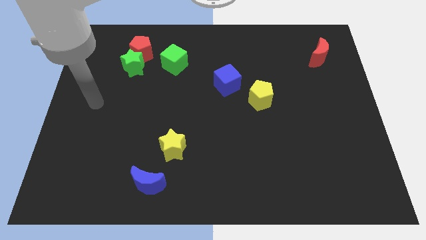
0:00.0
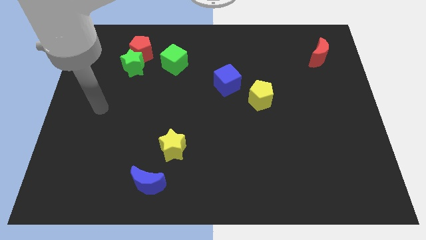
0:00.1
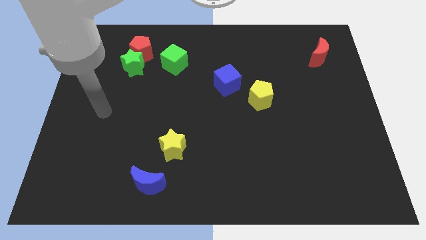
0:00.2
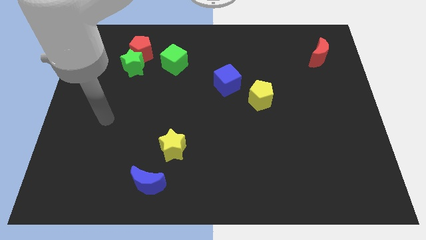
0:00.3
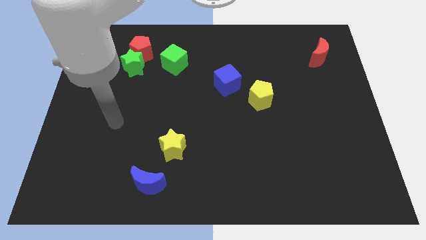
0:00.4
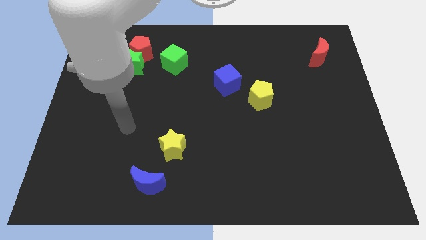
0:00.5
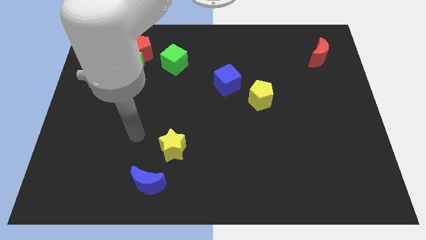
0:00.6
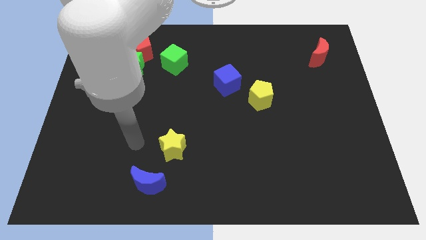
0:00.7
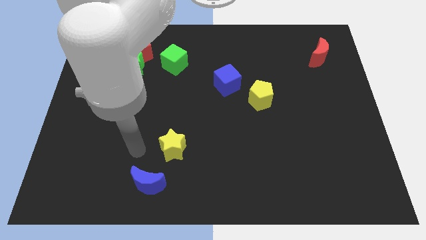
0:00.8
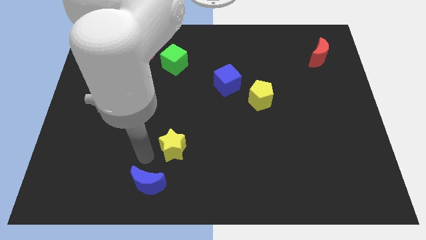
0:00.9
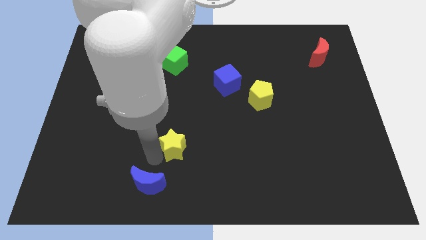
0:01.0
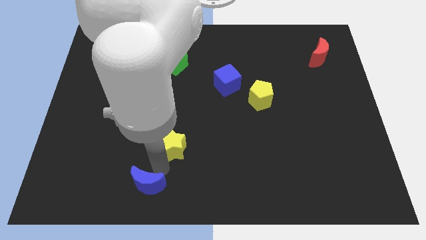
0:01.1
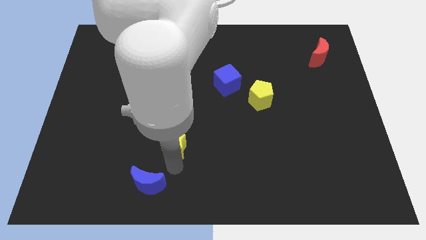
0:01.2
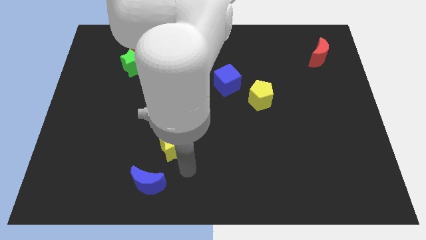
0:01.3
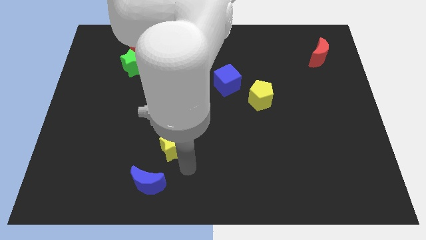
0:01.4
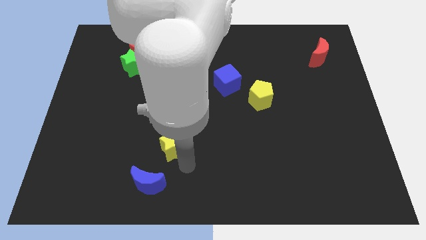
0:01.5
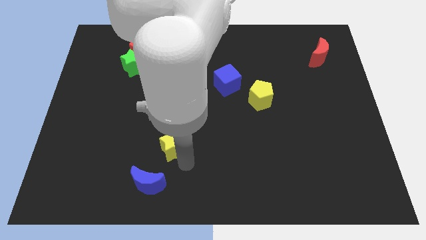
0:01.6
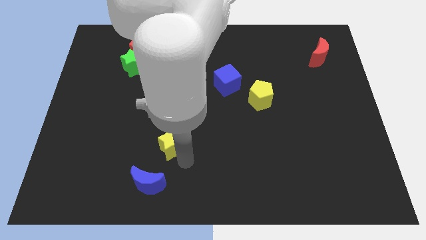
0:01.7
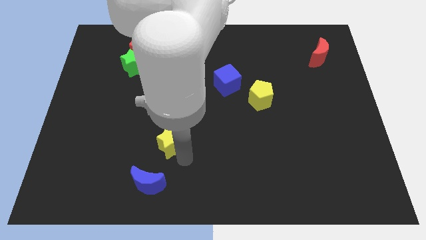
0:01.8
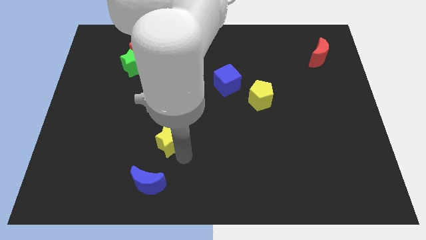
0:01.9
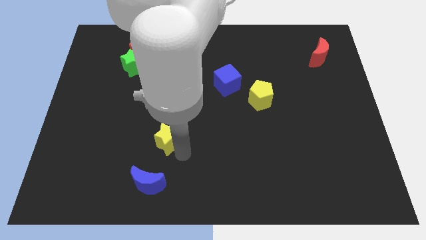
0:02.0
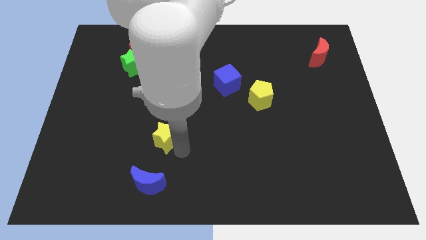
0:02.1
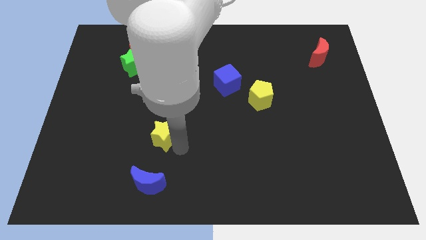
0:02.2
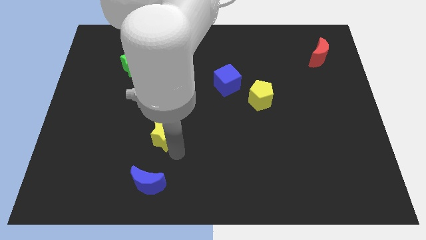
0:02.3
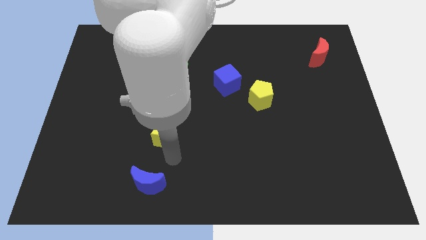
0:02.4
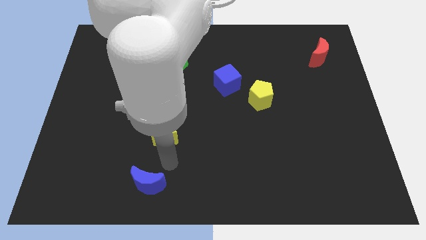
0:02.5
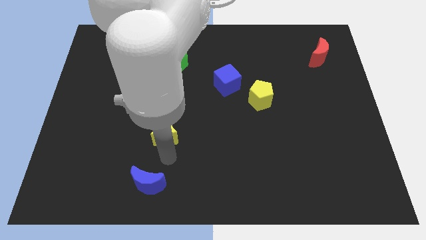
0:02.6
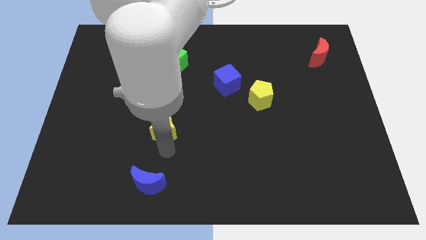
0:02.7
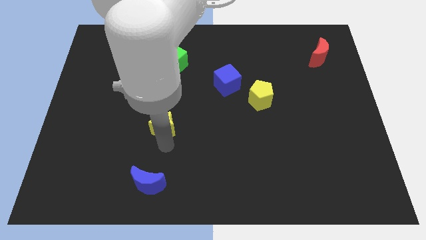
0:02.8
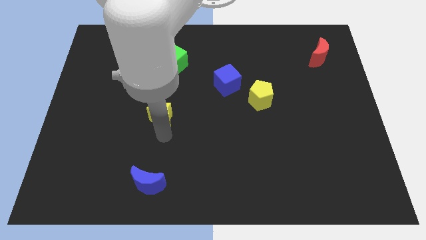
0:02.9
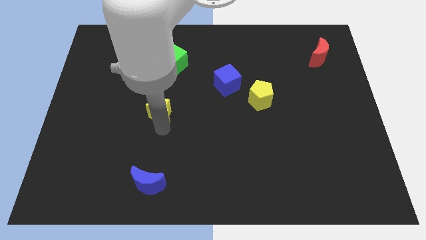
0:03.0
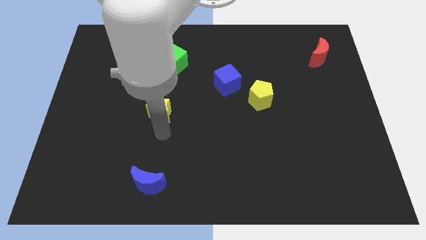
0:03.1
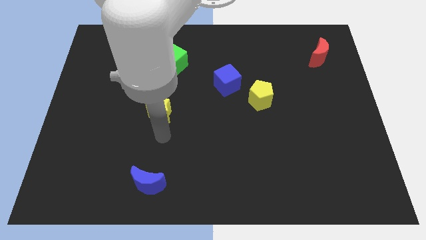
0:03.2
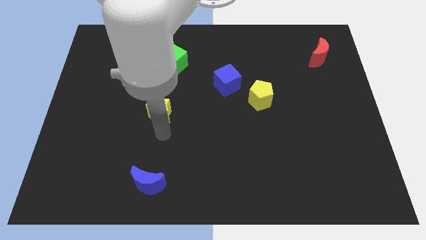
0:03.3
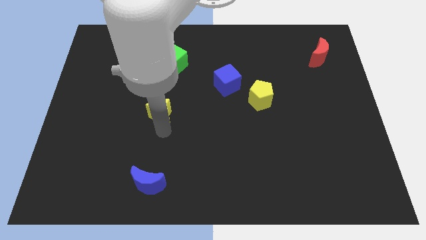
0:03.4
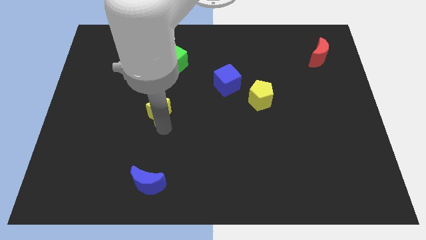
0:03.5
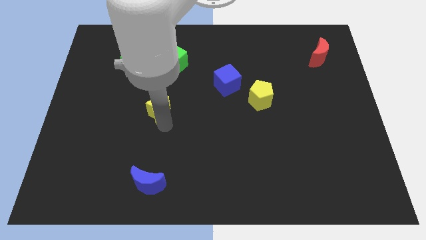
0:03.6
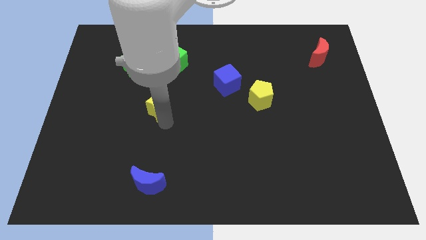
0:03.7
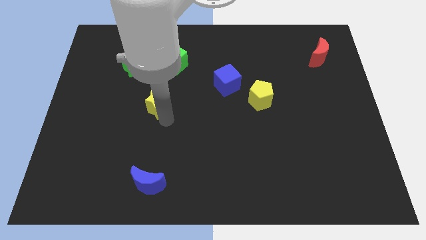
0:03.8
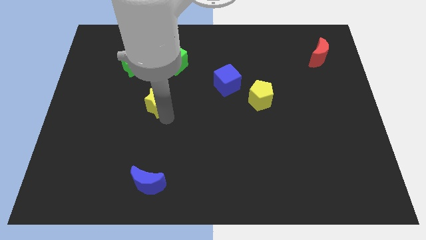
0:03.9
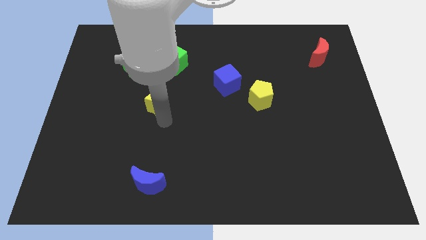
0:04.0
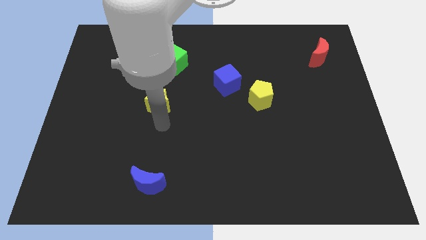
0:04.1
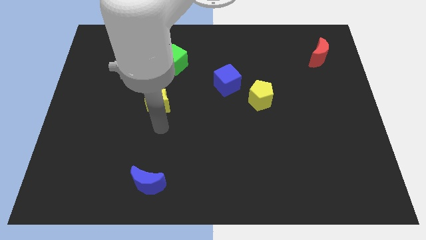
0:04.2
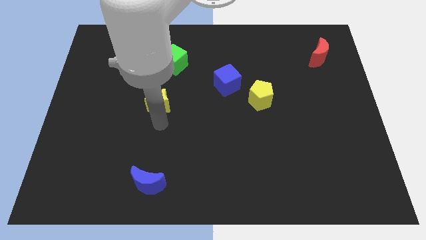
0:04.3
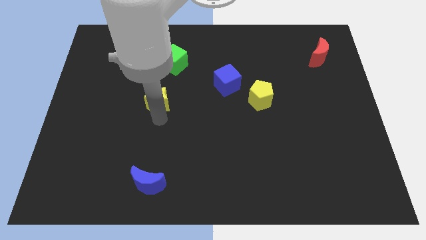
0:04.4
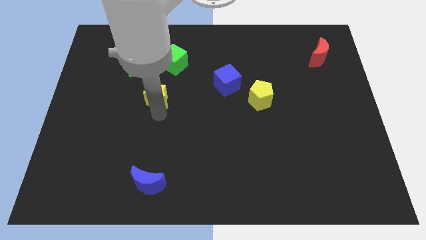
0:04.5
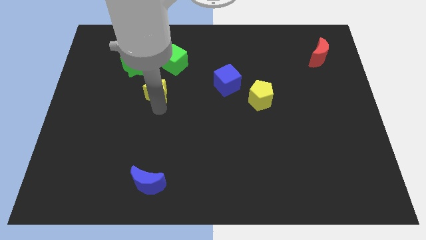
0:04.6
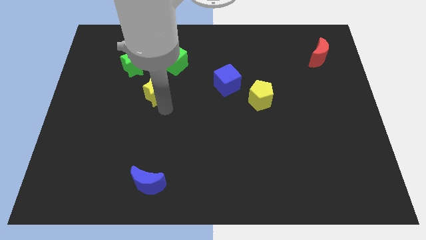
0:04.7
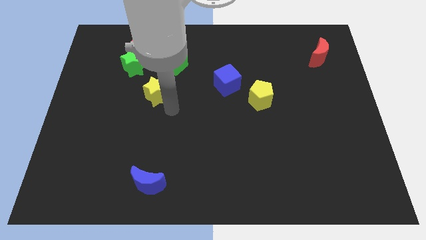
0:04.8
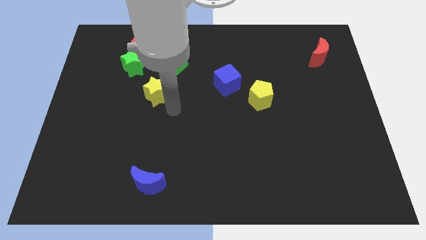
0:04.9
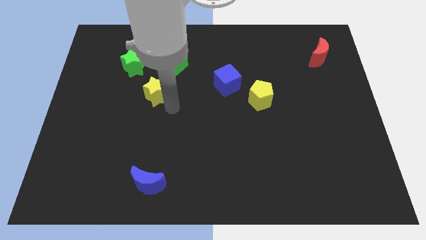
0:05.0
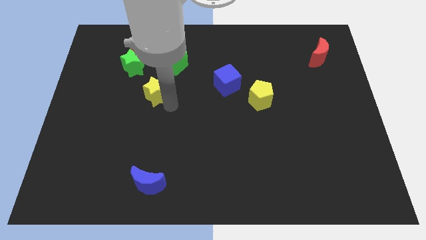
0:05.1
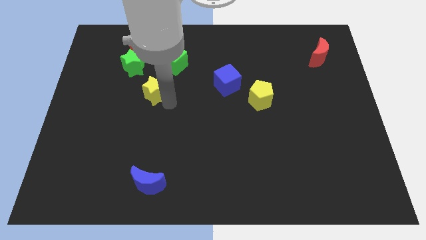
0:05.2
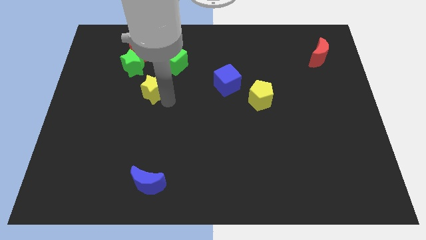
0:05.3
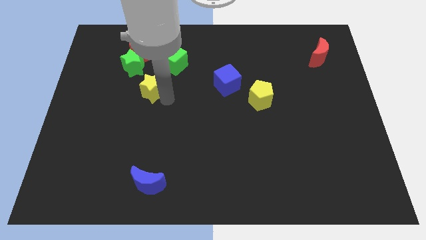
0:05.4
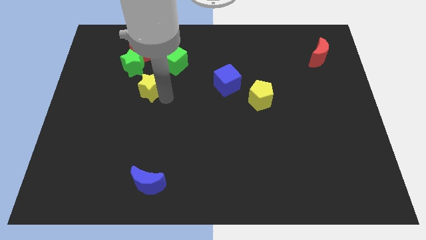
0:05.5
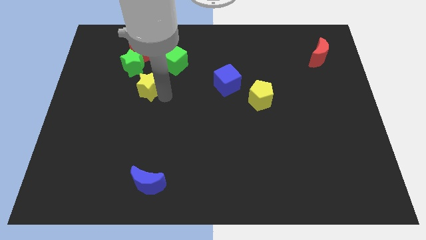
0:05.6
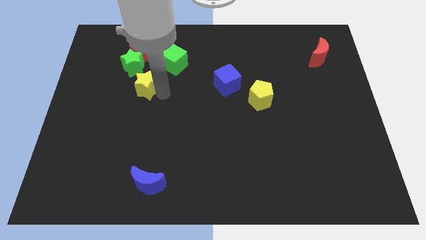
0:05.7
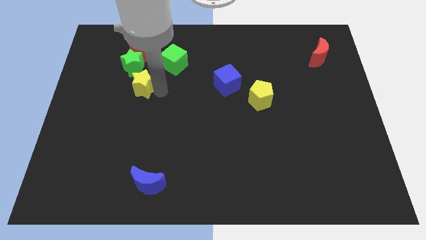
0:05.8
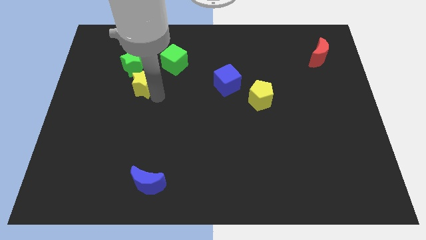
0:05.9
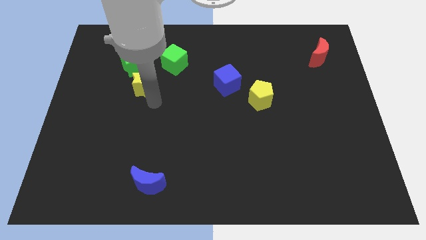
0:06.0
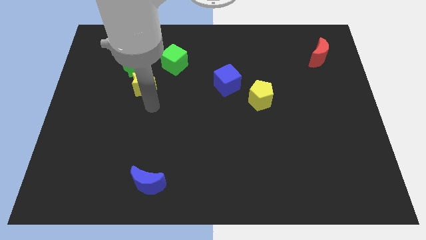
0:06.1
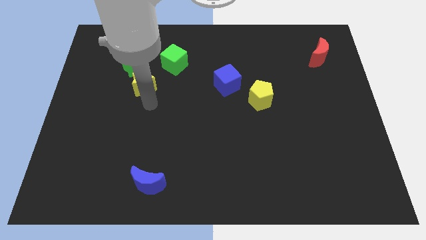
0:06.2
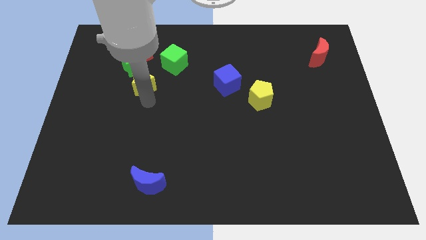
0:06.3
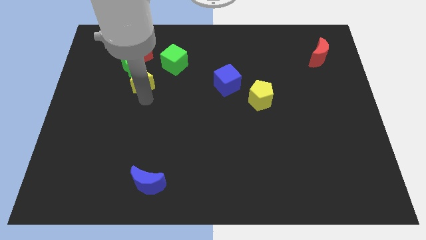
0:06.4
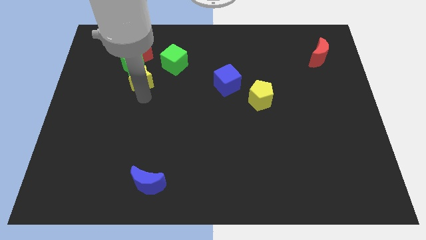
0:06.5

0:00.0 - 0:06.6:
push the yellow star close to the green star

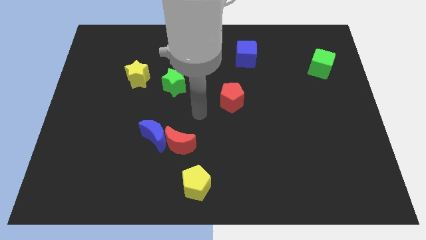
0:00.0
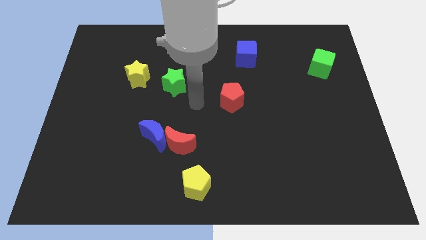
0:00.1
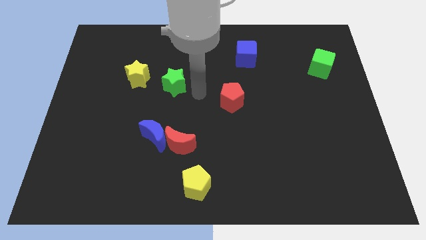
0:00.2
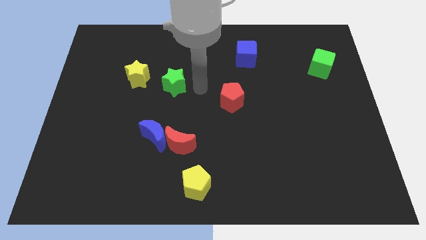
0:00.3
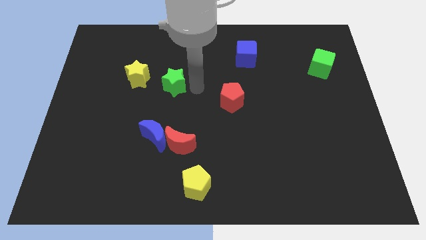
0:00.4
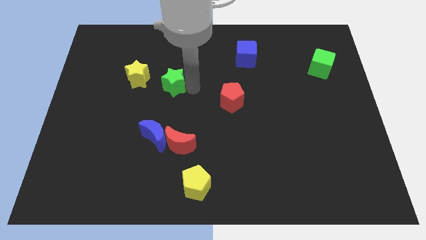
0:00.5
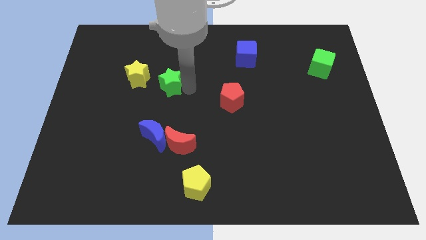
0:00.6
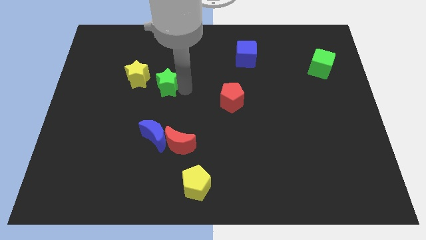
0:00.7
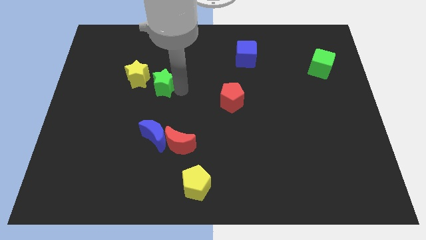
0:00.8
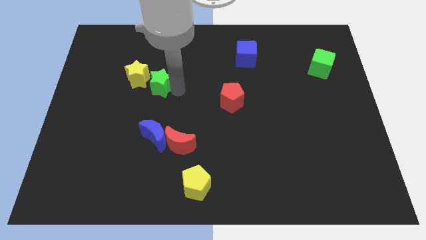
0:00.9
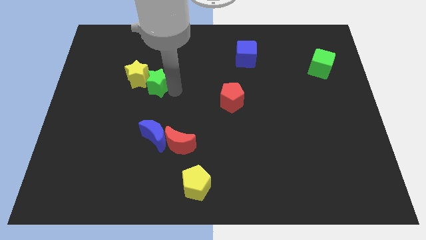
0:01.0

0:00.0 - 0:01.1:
put the green star towards the yellow star
